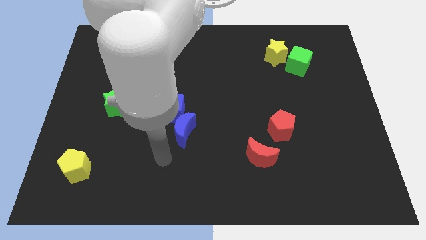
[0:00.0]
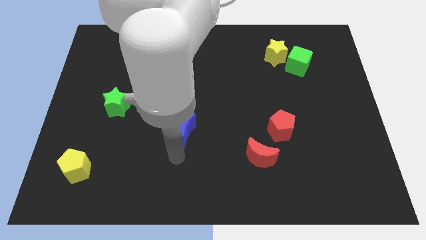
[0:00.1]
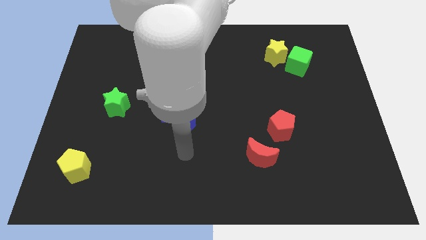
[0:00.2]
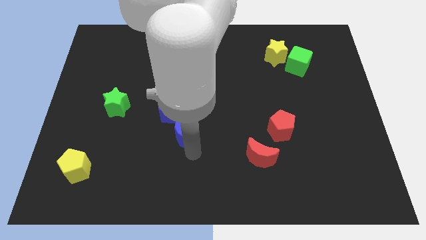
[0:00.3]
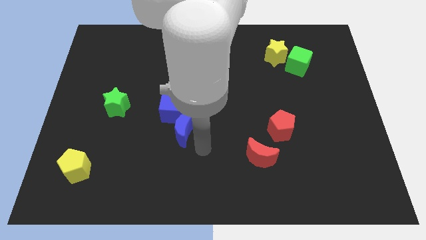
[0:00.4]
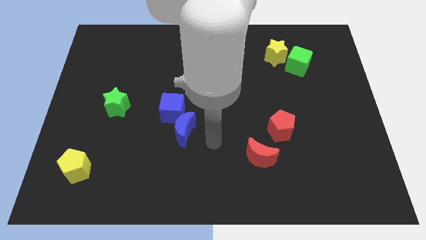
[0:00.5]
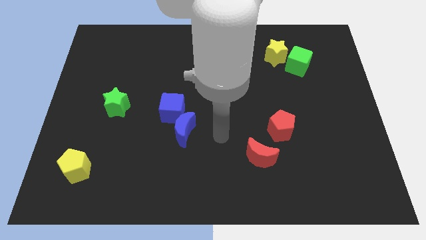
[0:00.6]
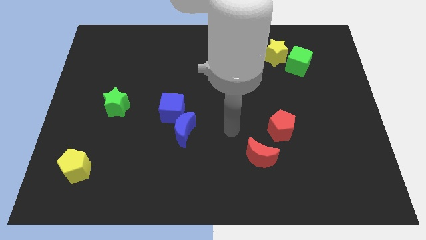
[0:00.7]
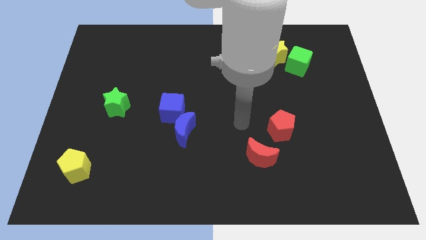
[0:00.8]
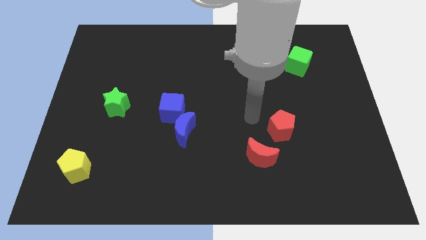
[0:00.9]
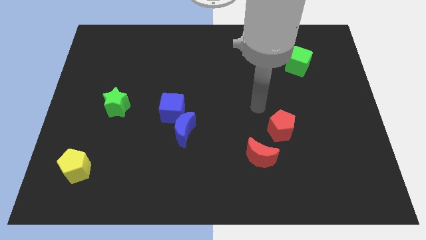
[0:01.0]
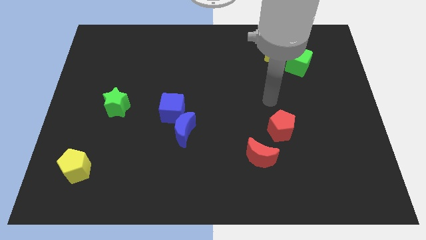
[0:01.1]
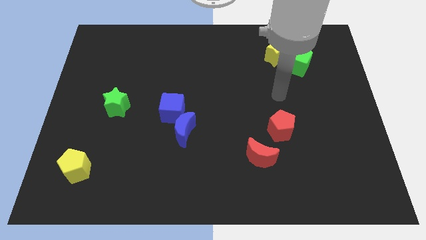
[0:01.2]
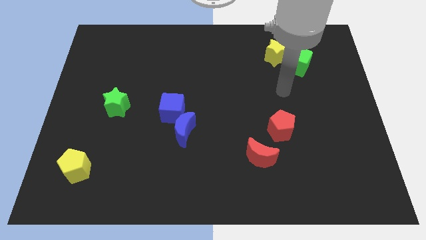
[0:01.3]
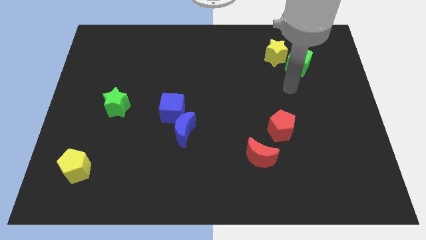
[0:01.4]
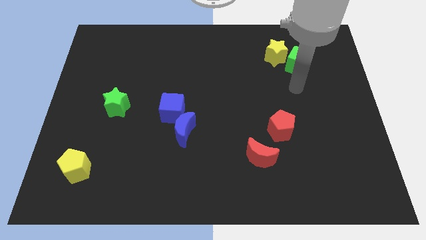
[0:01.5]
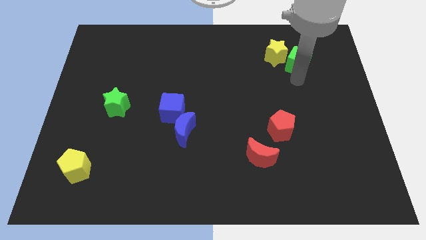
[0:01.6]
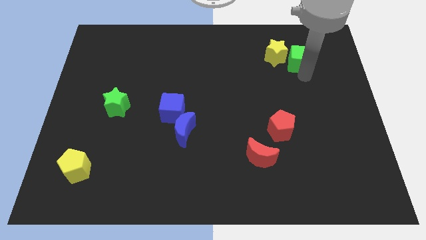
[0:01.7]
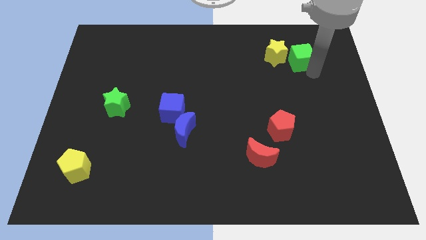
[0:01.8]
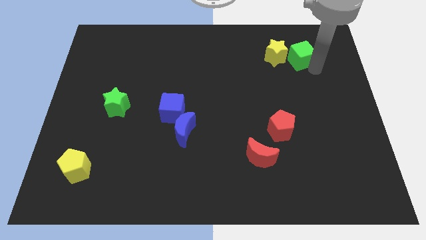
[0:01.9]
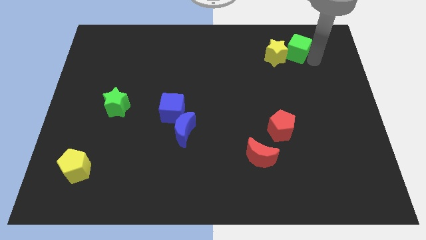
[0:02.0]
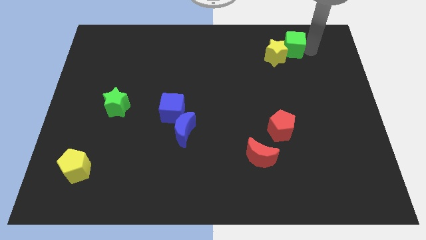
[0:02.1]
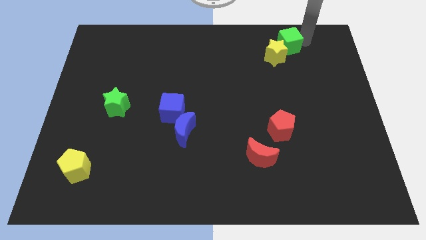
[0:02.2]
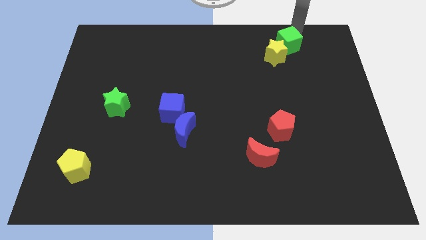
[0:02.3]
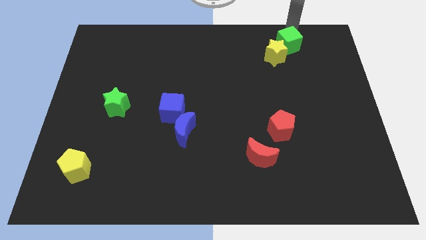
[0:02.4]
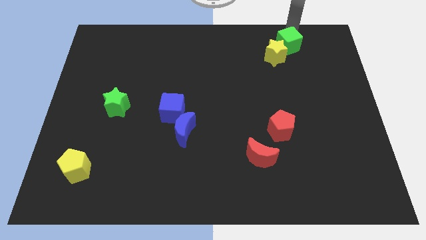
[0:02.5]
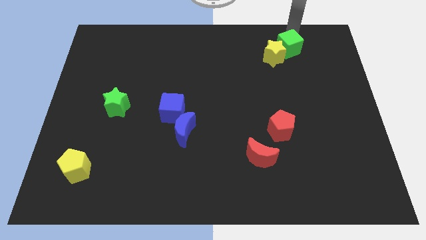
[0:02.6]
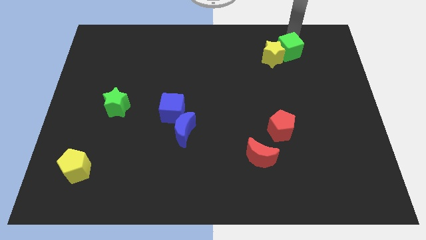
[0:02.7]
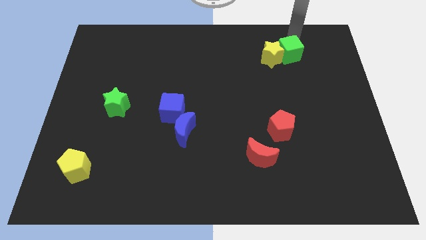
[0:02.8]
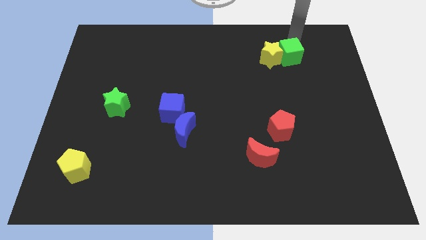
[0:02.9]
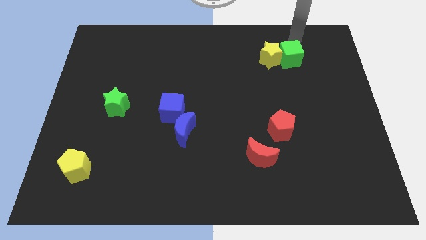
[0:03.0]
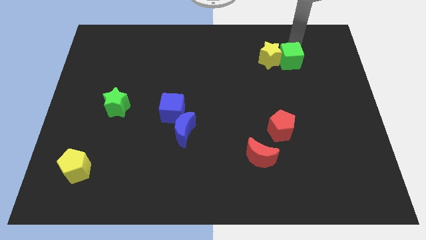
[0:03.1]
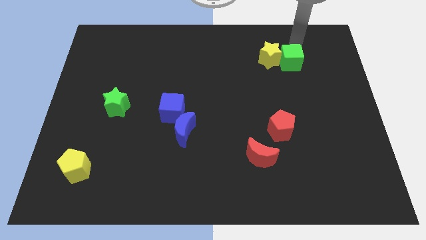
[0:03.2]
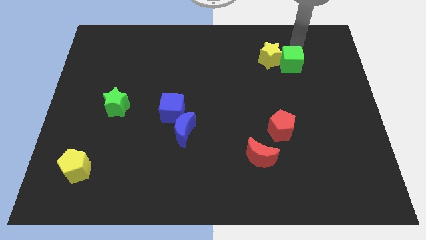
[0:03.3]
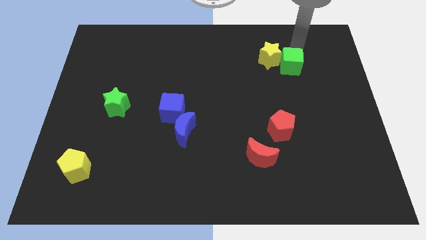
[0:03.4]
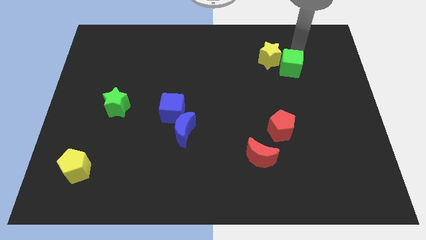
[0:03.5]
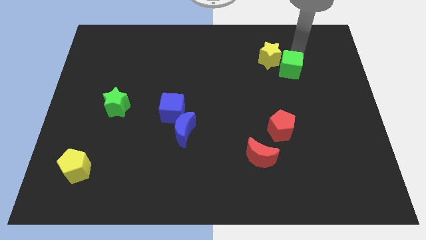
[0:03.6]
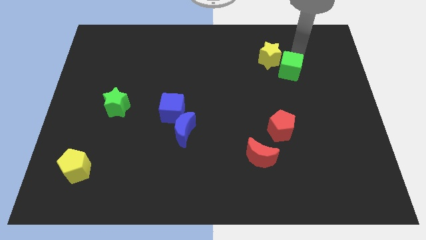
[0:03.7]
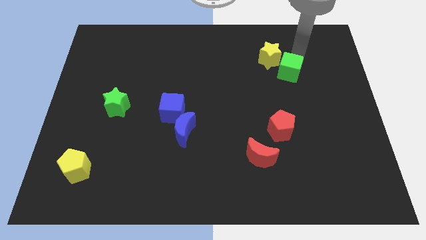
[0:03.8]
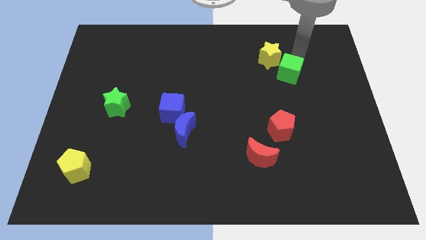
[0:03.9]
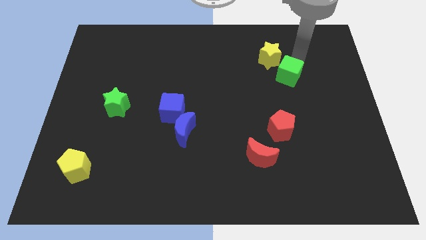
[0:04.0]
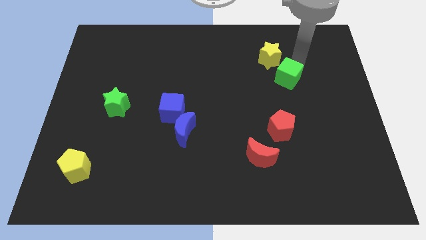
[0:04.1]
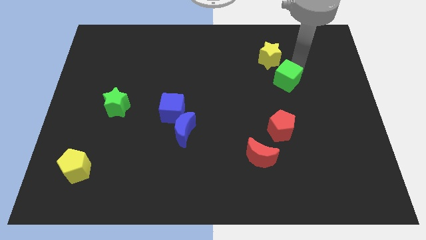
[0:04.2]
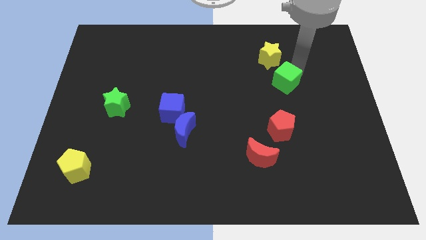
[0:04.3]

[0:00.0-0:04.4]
move the green cube somewhat downwards and left diagonally

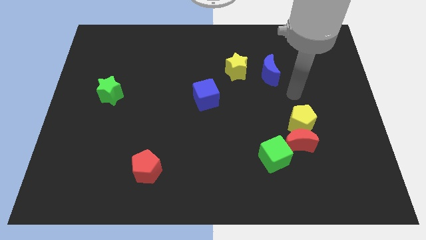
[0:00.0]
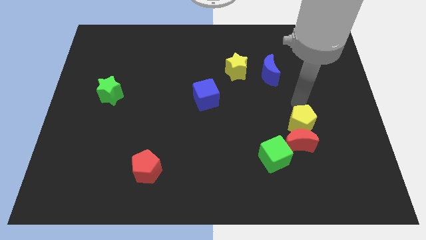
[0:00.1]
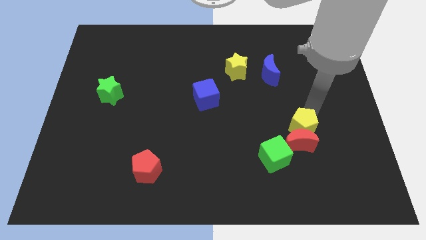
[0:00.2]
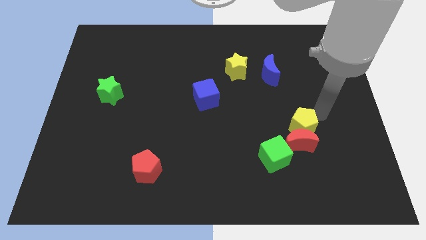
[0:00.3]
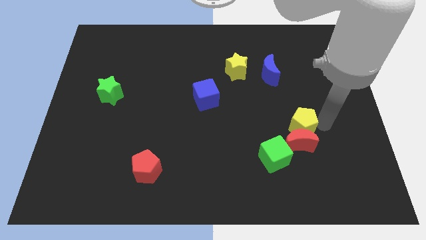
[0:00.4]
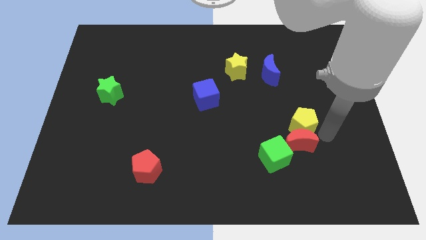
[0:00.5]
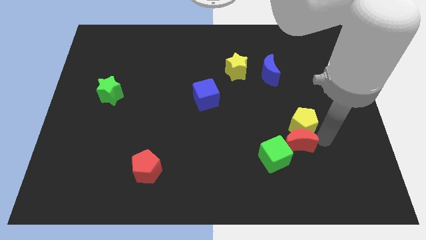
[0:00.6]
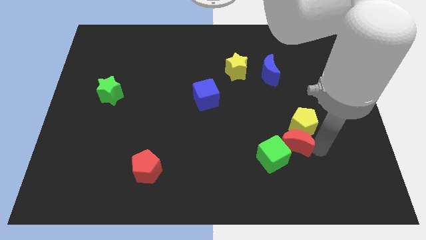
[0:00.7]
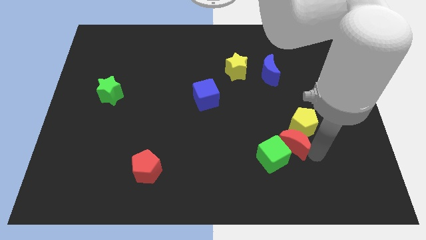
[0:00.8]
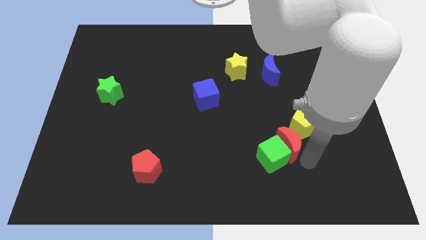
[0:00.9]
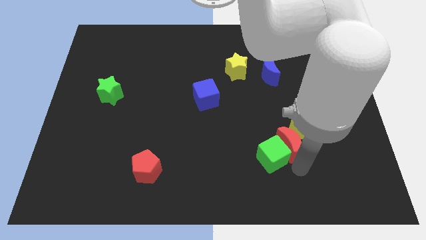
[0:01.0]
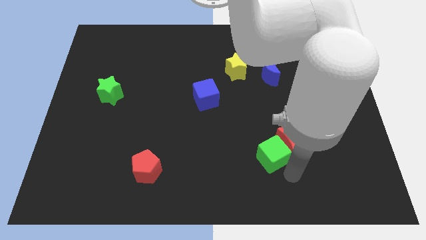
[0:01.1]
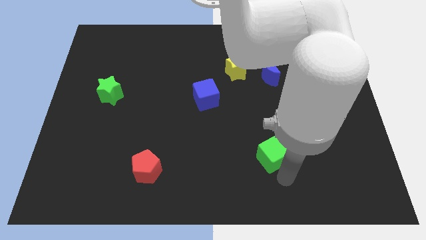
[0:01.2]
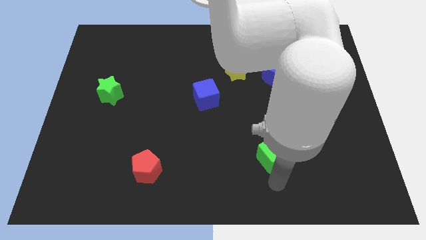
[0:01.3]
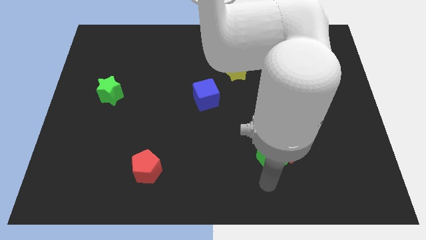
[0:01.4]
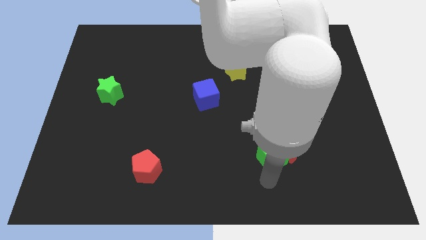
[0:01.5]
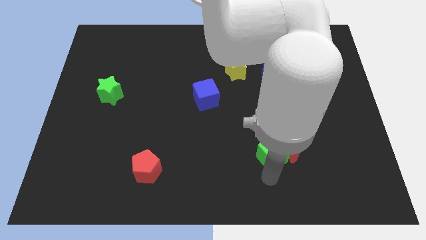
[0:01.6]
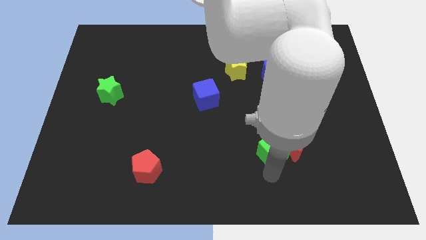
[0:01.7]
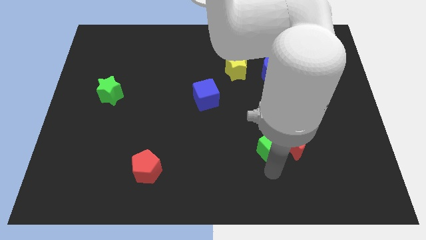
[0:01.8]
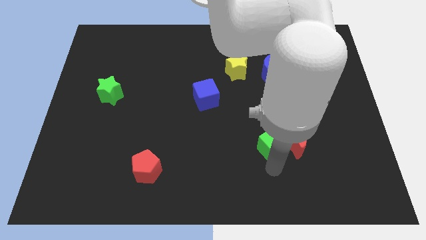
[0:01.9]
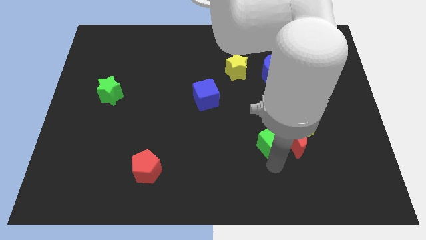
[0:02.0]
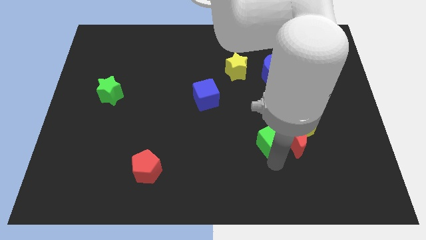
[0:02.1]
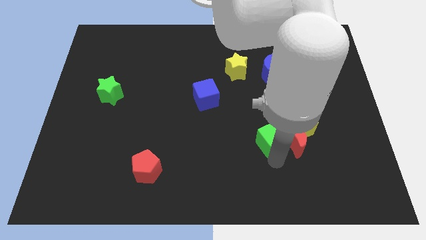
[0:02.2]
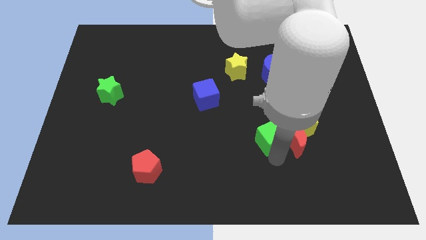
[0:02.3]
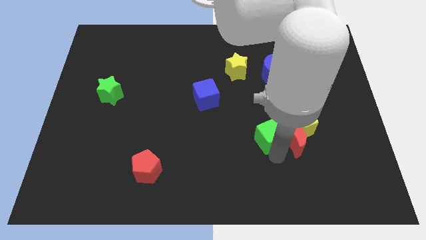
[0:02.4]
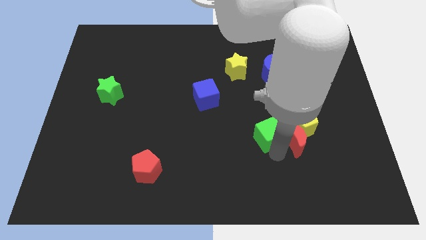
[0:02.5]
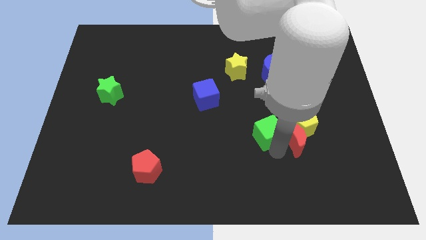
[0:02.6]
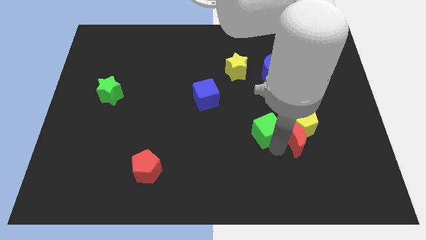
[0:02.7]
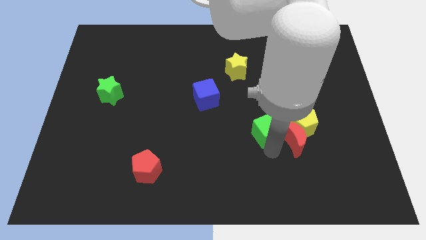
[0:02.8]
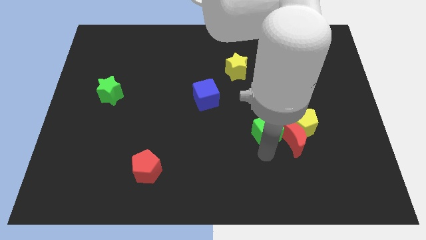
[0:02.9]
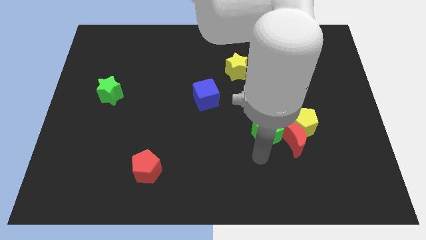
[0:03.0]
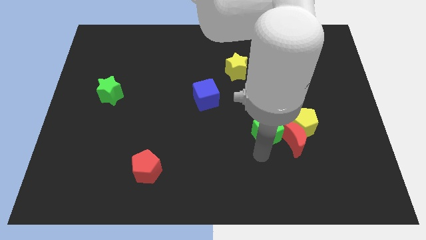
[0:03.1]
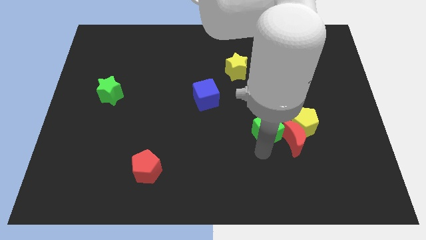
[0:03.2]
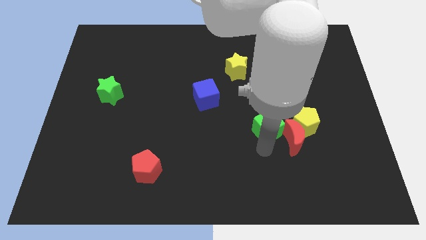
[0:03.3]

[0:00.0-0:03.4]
move the green cube a little bit upwards

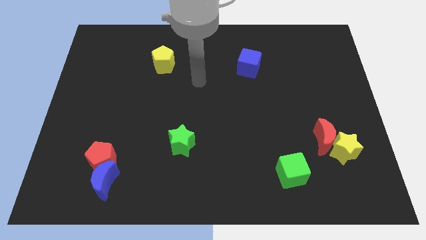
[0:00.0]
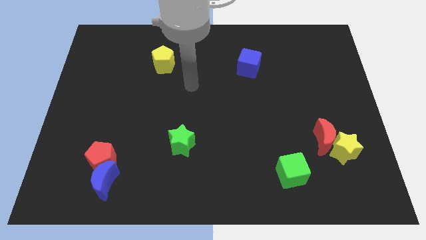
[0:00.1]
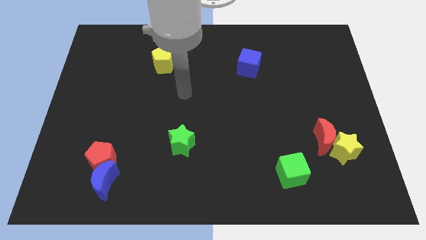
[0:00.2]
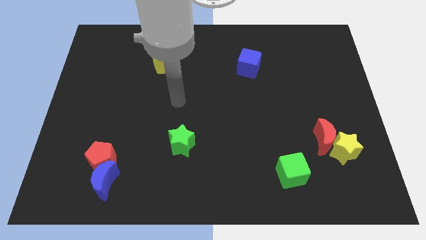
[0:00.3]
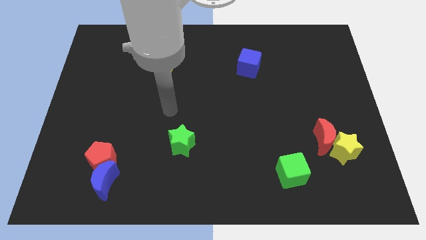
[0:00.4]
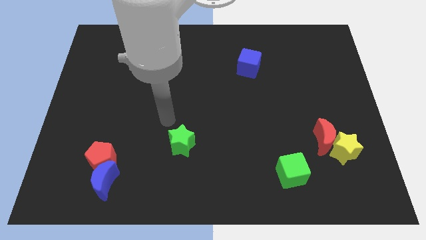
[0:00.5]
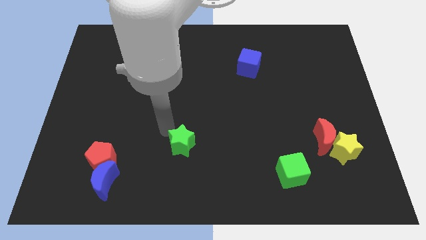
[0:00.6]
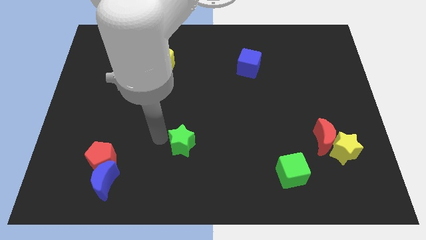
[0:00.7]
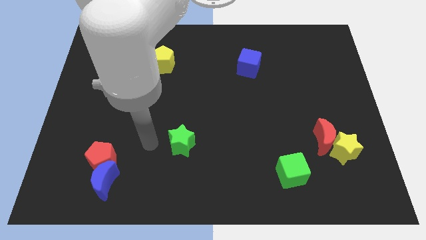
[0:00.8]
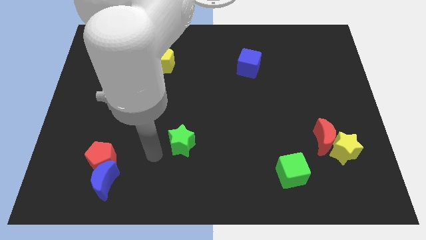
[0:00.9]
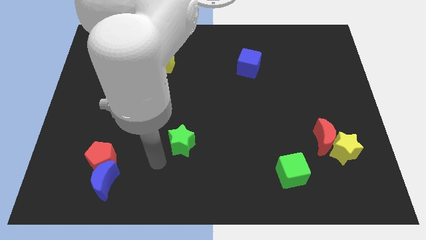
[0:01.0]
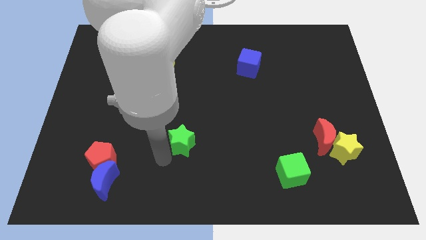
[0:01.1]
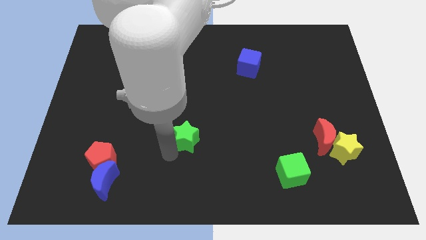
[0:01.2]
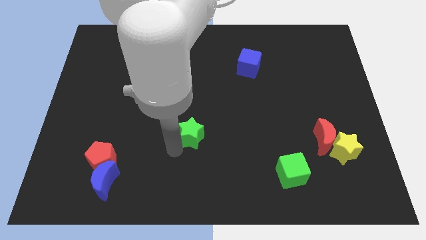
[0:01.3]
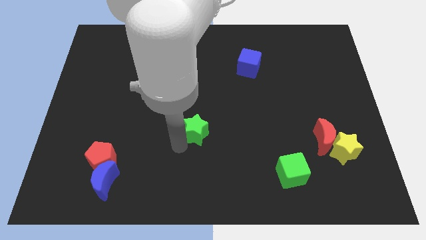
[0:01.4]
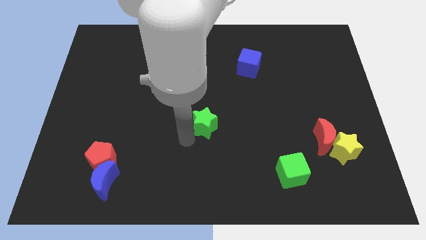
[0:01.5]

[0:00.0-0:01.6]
move the green star a little bit up and right
